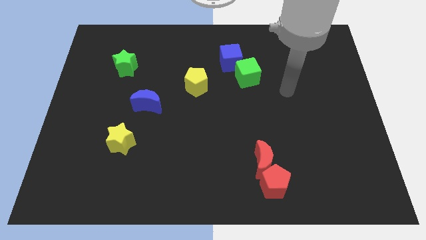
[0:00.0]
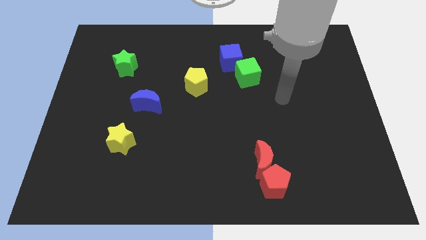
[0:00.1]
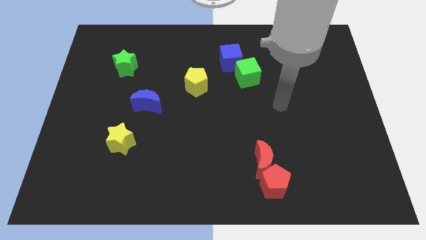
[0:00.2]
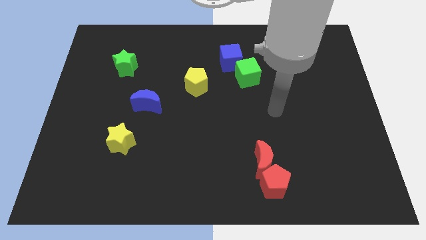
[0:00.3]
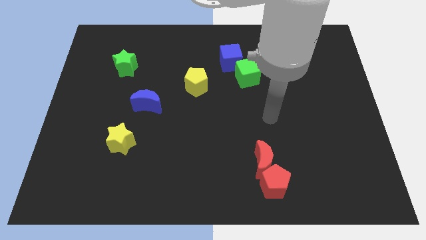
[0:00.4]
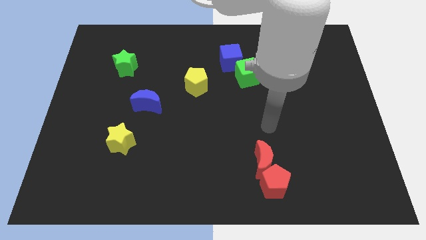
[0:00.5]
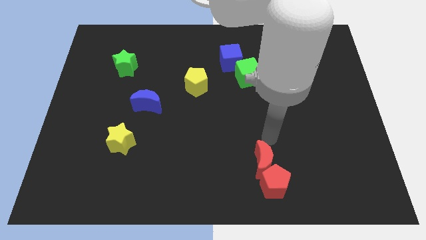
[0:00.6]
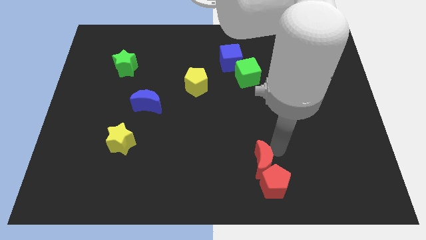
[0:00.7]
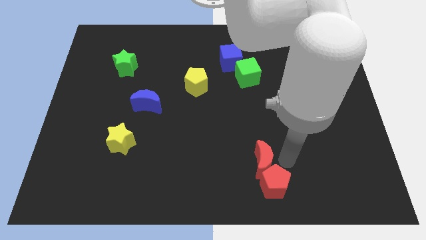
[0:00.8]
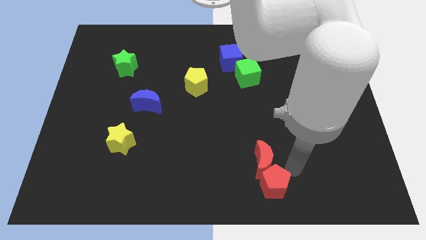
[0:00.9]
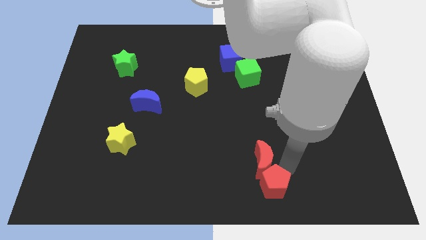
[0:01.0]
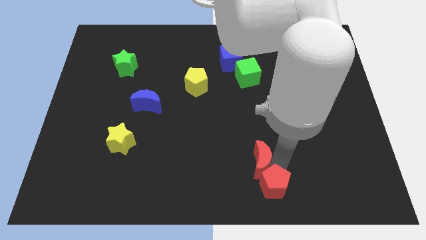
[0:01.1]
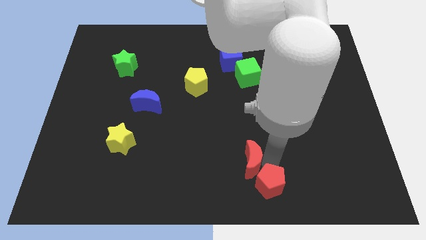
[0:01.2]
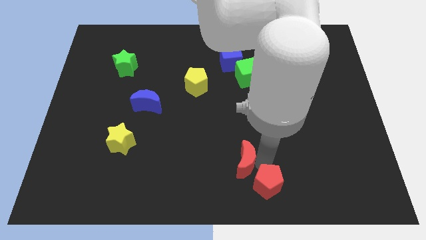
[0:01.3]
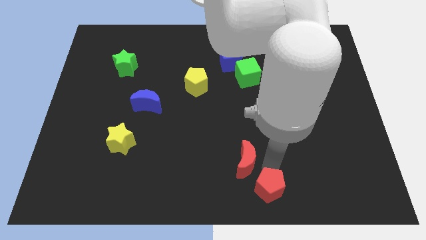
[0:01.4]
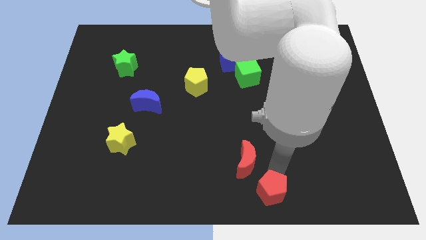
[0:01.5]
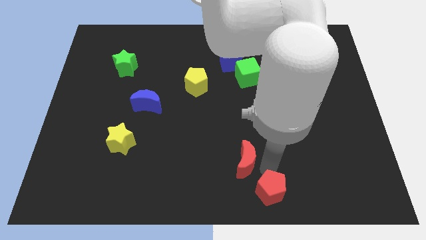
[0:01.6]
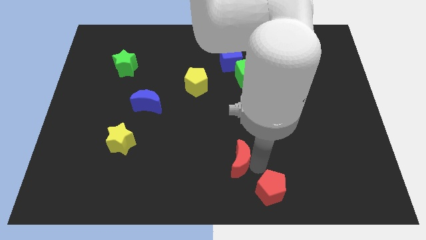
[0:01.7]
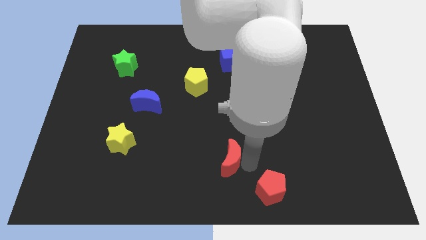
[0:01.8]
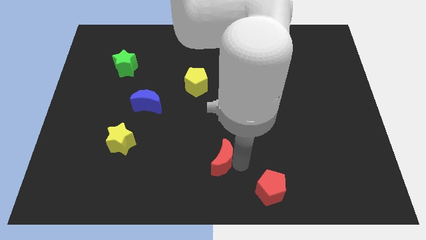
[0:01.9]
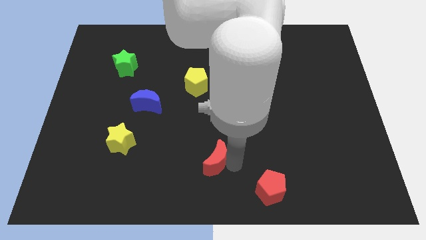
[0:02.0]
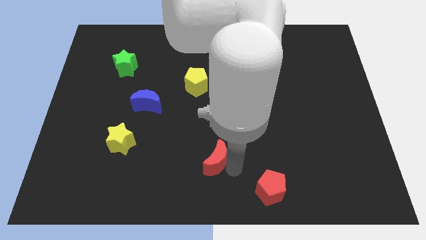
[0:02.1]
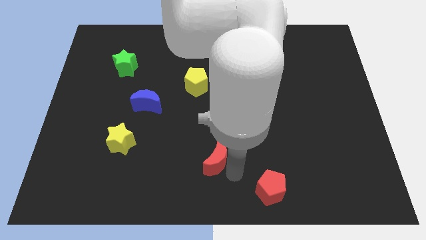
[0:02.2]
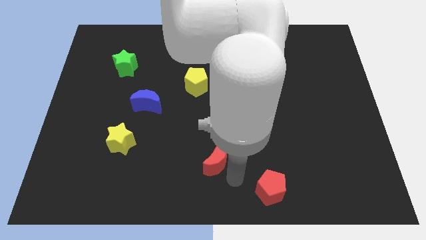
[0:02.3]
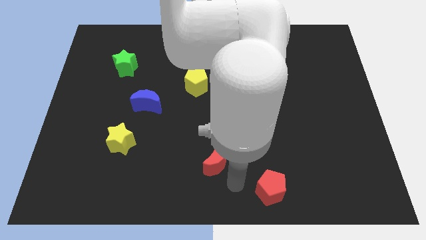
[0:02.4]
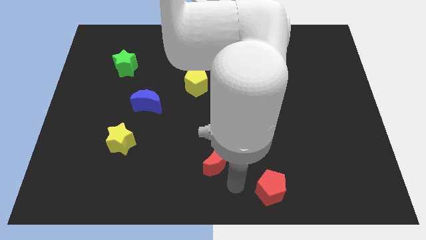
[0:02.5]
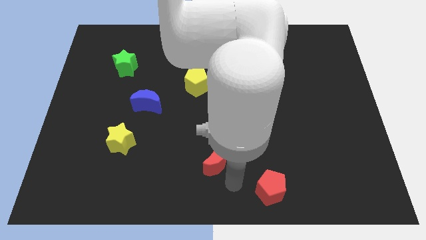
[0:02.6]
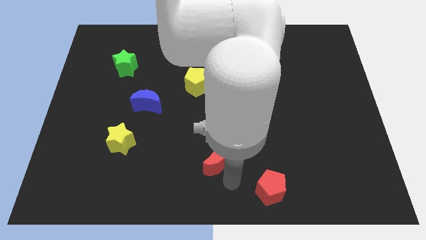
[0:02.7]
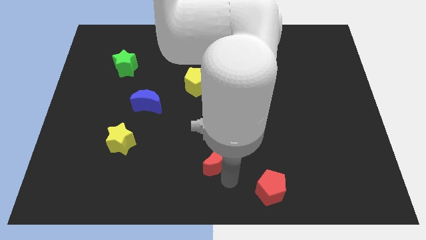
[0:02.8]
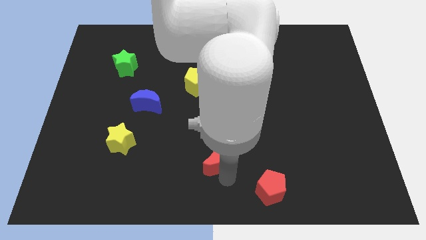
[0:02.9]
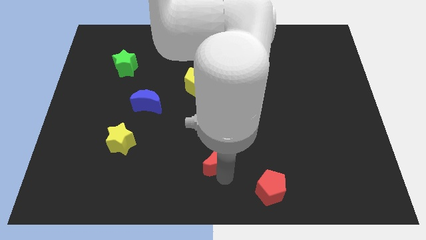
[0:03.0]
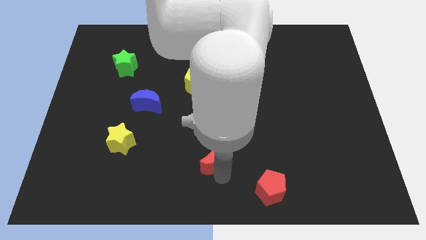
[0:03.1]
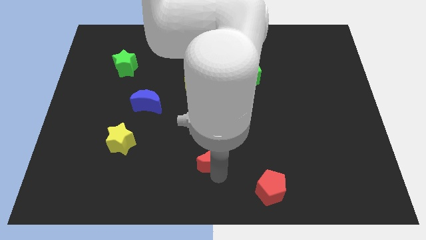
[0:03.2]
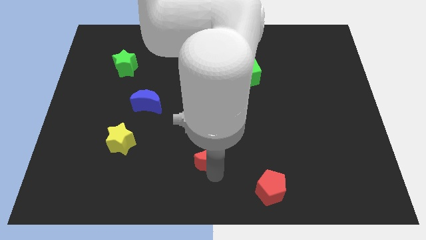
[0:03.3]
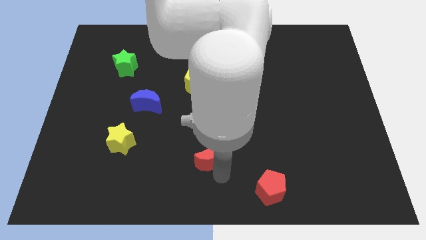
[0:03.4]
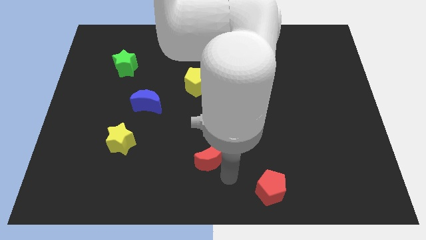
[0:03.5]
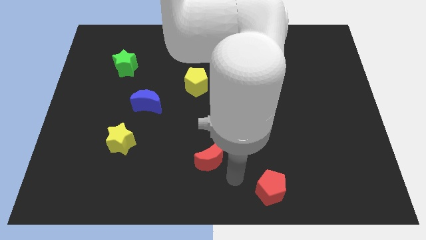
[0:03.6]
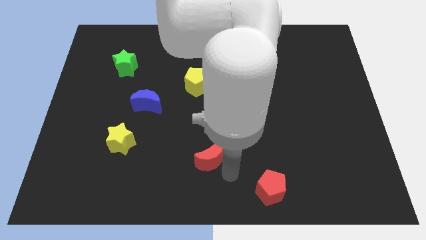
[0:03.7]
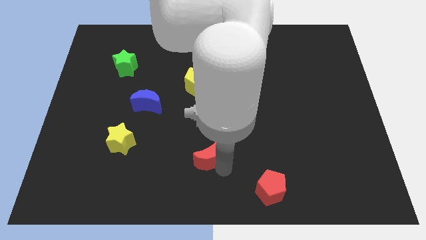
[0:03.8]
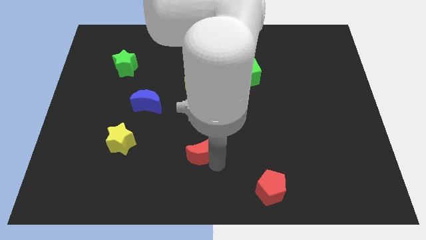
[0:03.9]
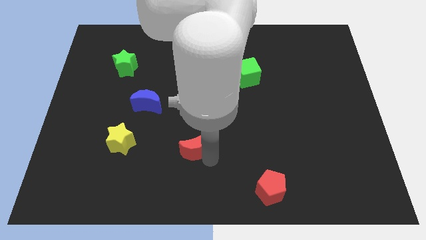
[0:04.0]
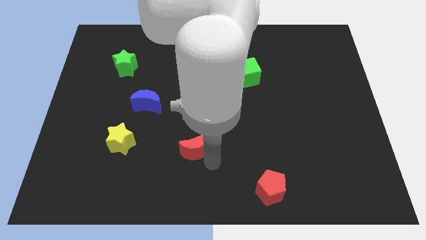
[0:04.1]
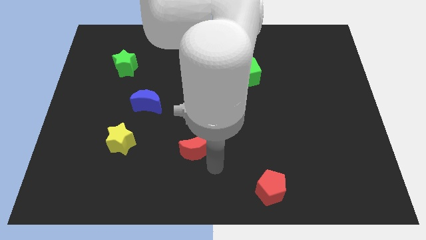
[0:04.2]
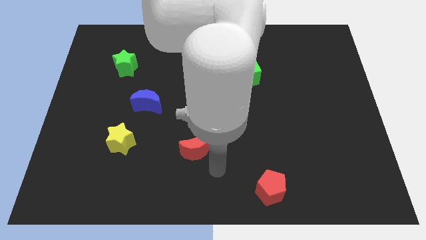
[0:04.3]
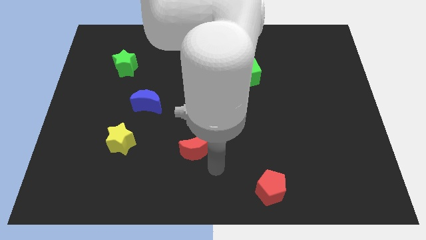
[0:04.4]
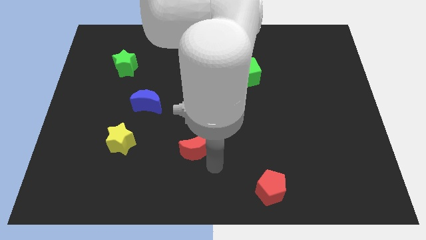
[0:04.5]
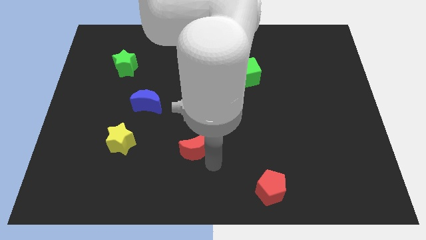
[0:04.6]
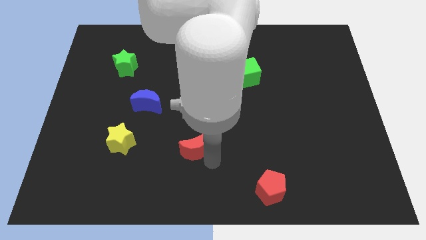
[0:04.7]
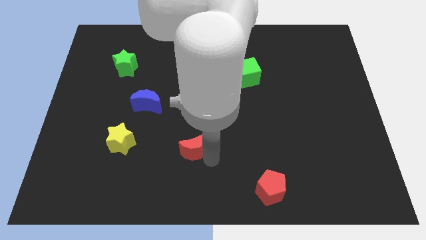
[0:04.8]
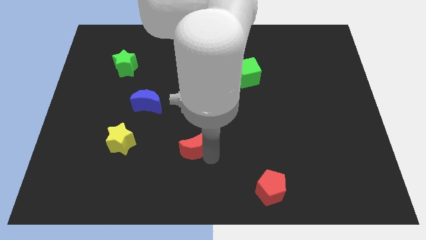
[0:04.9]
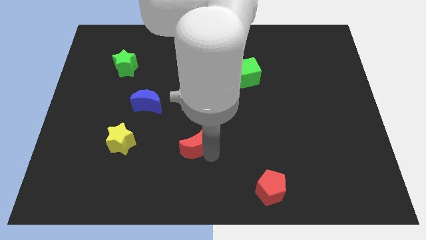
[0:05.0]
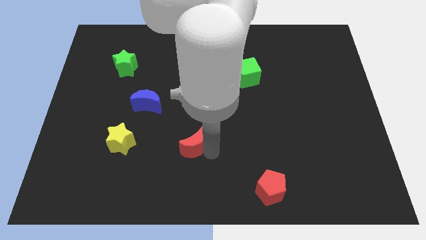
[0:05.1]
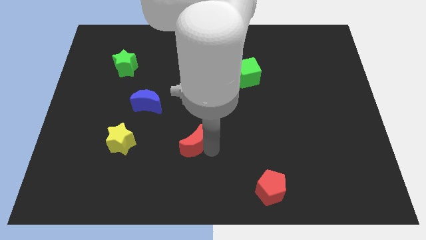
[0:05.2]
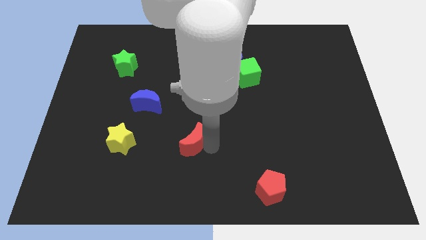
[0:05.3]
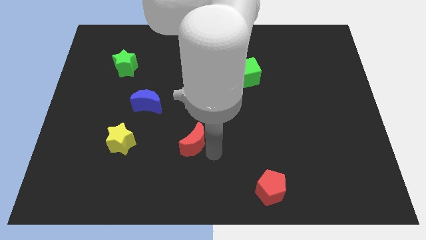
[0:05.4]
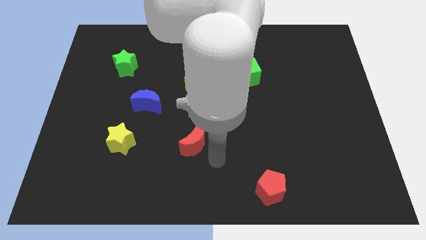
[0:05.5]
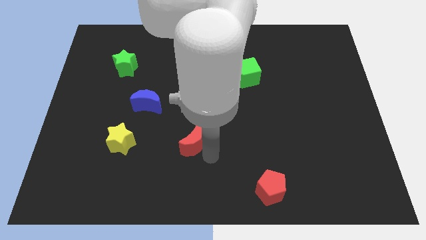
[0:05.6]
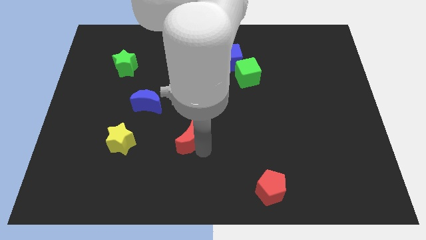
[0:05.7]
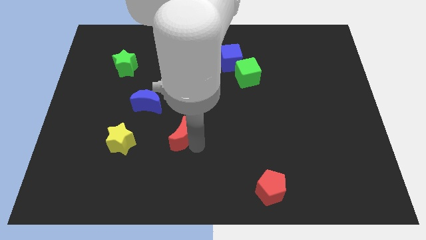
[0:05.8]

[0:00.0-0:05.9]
push the red moon to the bottom right side of the blue moon

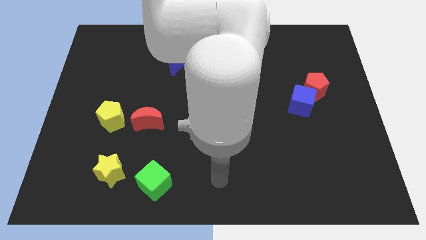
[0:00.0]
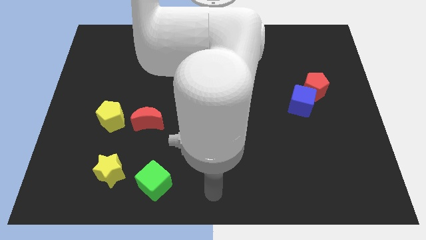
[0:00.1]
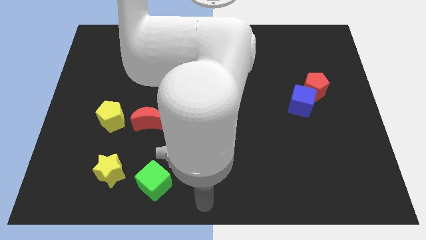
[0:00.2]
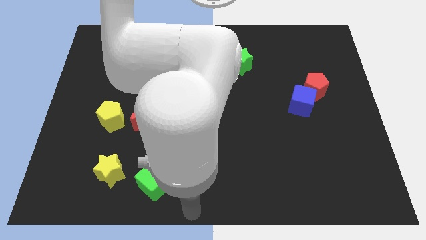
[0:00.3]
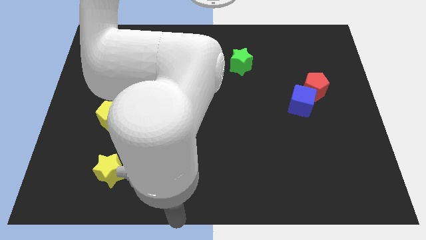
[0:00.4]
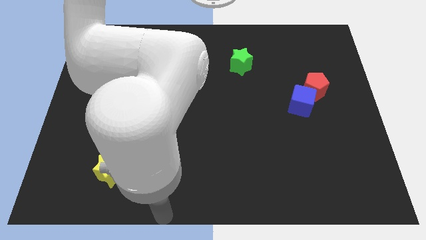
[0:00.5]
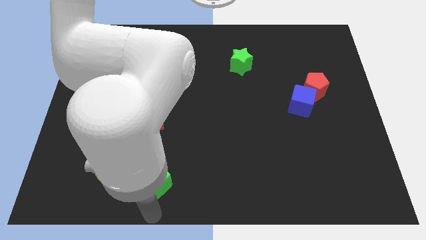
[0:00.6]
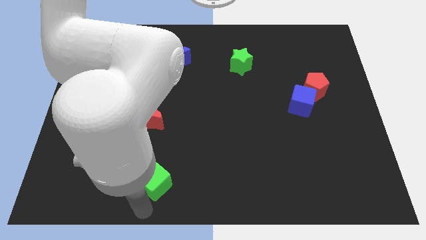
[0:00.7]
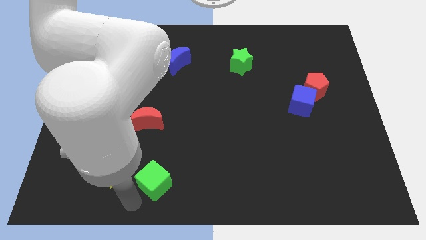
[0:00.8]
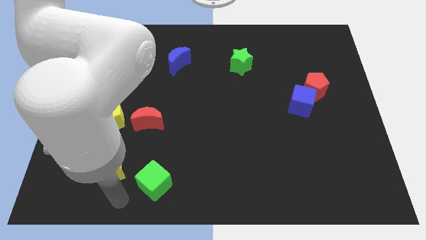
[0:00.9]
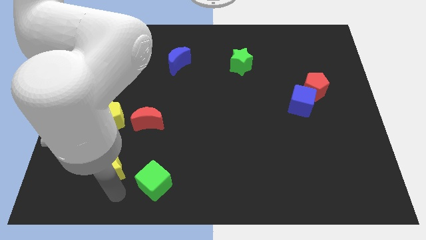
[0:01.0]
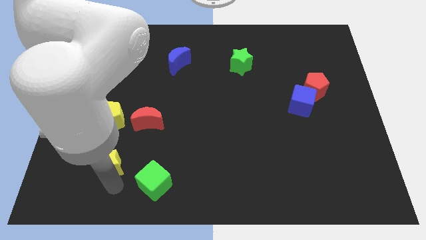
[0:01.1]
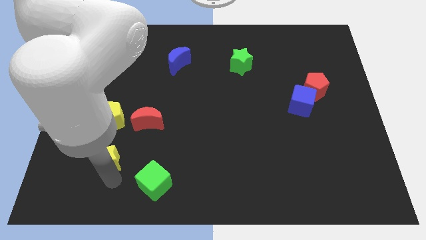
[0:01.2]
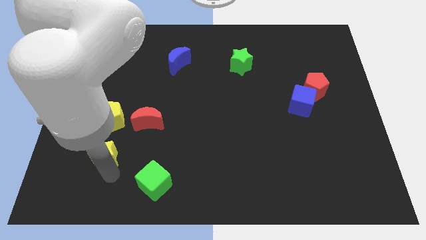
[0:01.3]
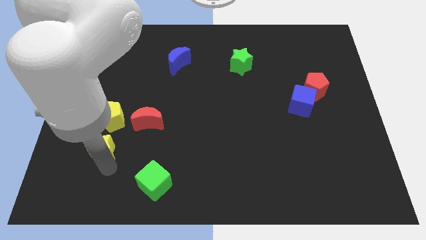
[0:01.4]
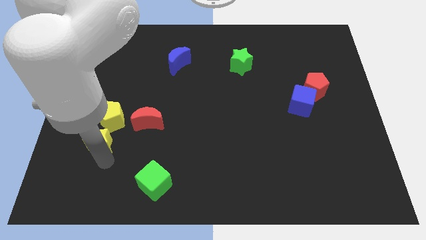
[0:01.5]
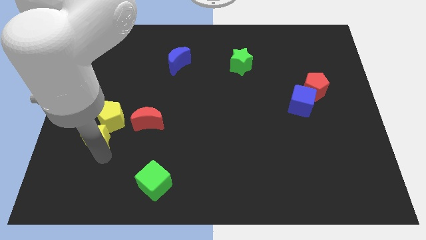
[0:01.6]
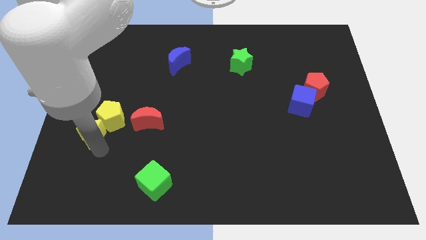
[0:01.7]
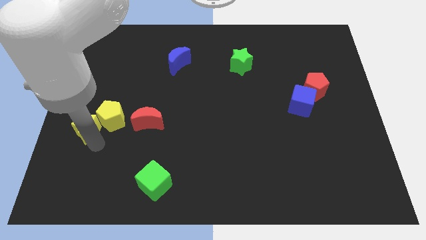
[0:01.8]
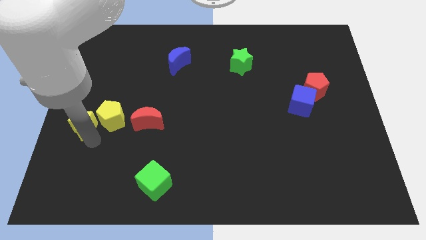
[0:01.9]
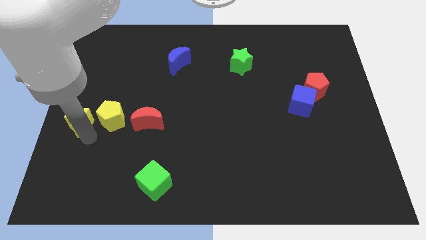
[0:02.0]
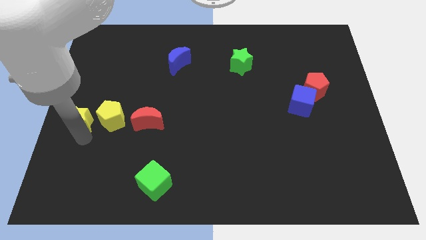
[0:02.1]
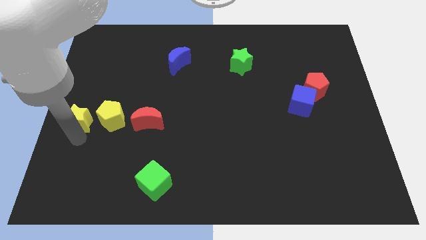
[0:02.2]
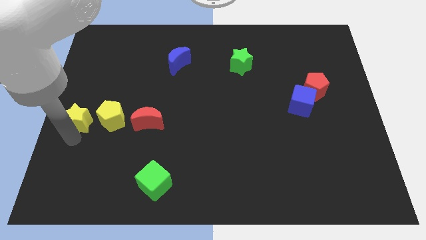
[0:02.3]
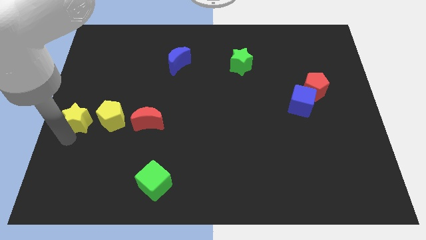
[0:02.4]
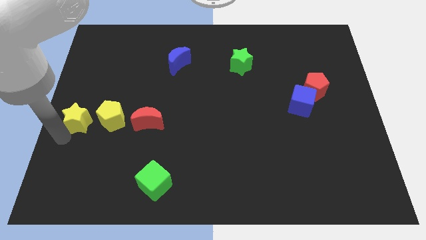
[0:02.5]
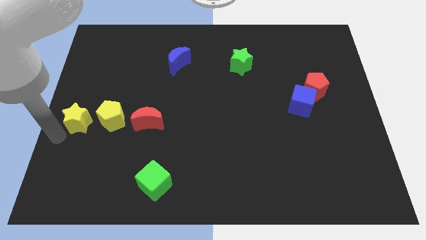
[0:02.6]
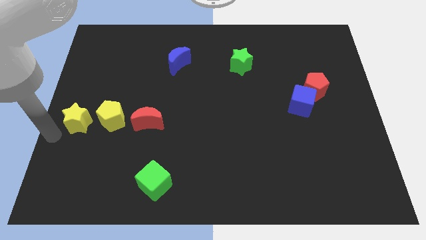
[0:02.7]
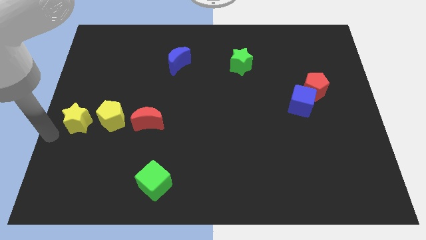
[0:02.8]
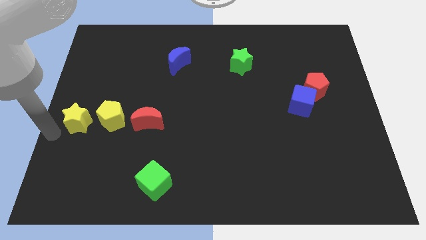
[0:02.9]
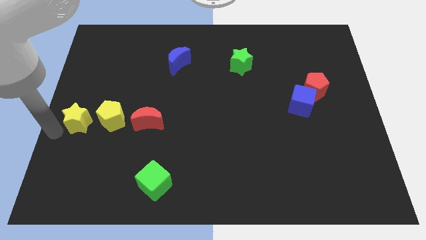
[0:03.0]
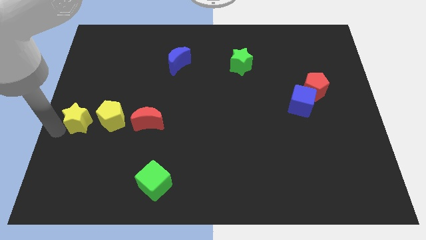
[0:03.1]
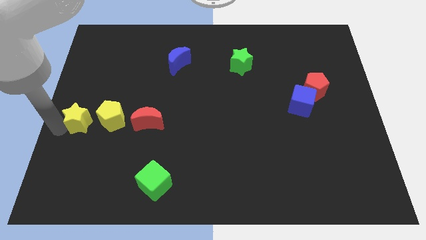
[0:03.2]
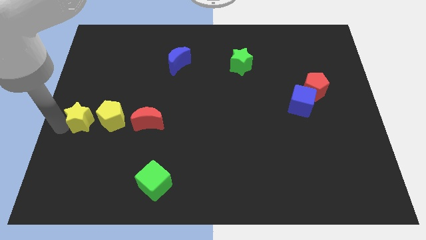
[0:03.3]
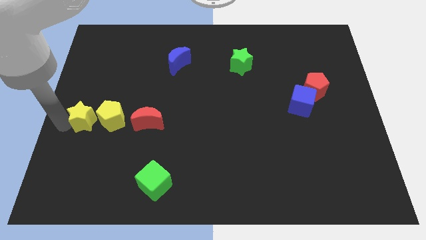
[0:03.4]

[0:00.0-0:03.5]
slide the yellow star diagonally up and to the left of the yellow pentagon
